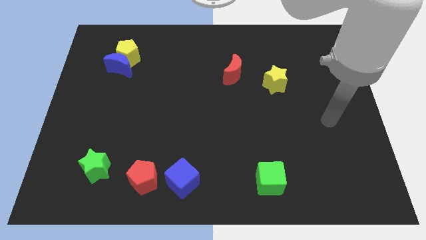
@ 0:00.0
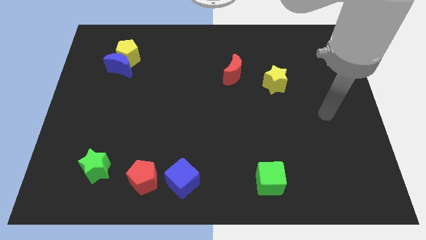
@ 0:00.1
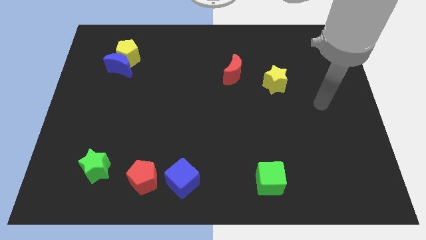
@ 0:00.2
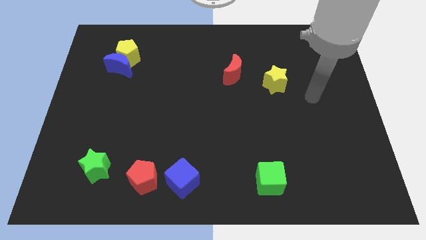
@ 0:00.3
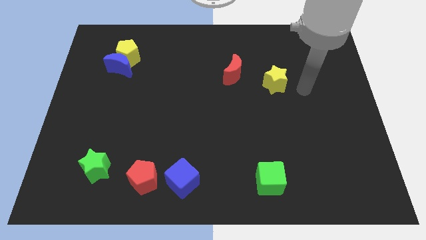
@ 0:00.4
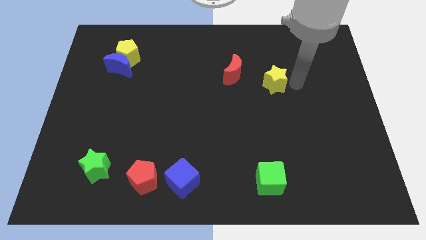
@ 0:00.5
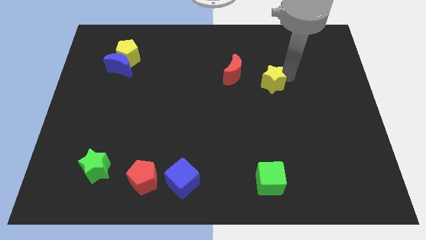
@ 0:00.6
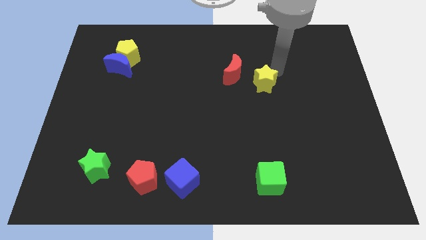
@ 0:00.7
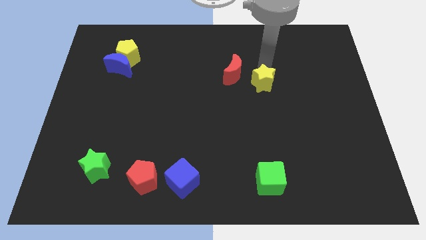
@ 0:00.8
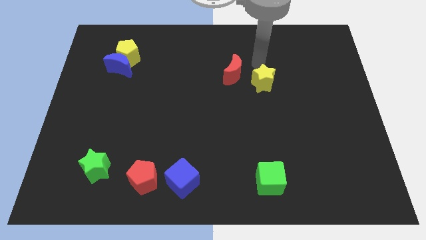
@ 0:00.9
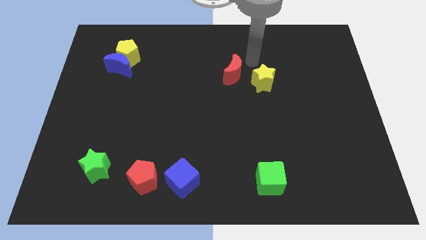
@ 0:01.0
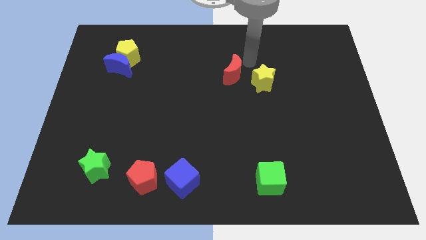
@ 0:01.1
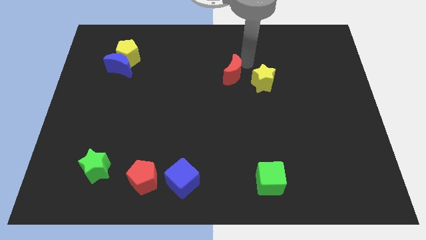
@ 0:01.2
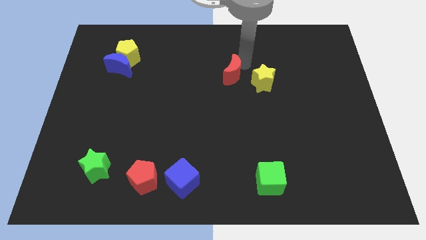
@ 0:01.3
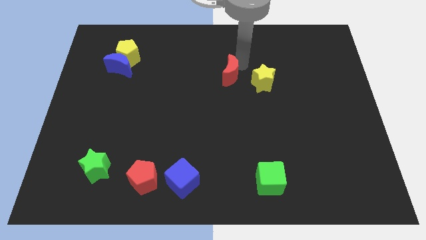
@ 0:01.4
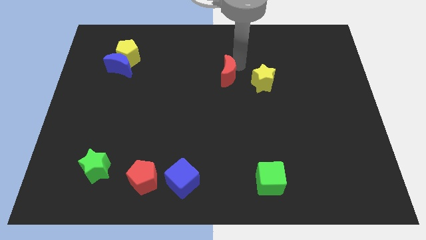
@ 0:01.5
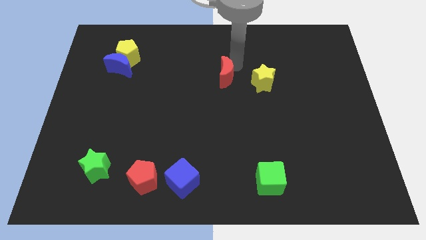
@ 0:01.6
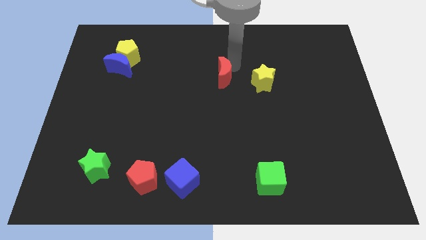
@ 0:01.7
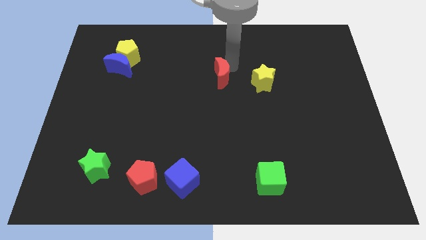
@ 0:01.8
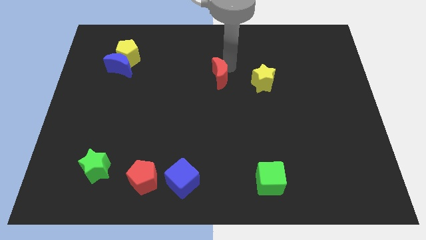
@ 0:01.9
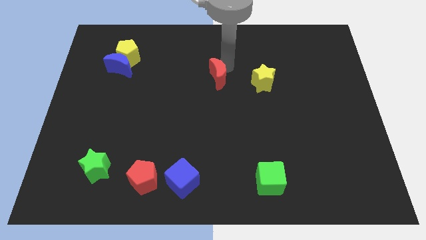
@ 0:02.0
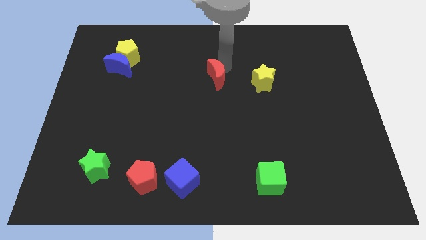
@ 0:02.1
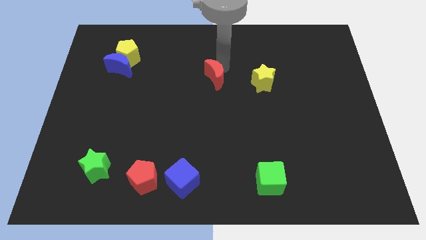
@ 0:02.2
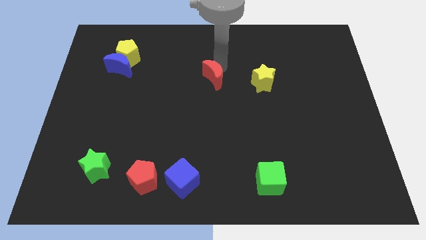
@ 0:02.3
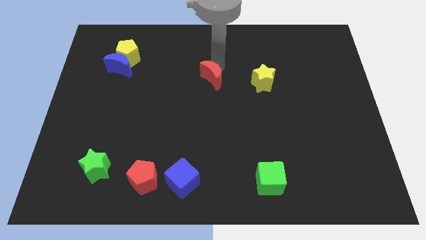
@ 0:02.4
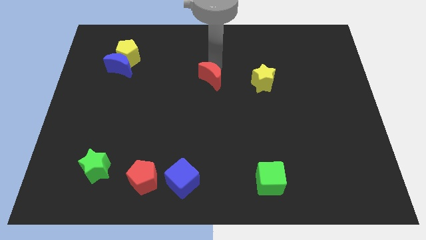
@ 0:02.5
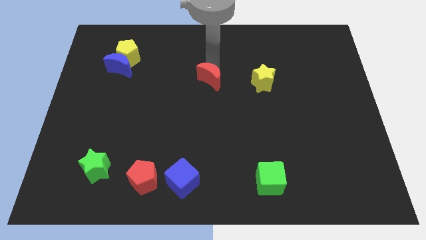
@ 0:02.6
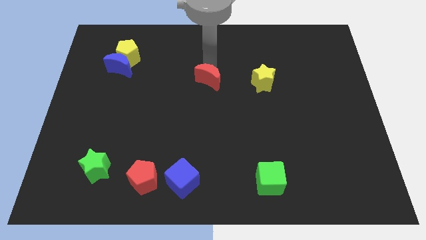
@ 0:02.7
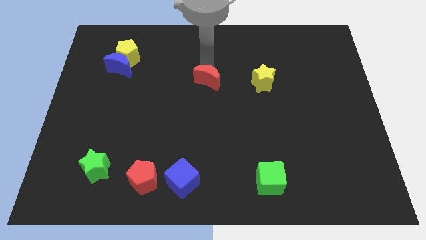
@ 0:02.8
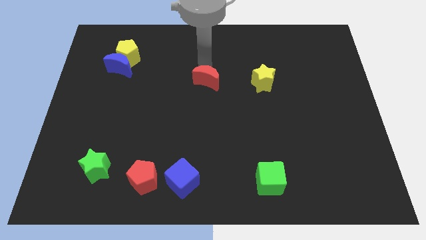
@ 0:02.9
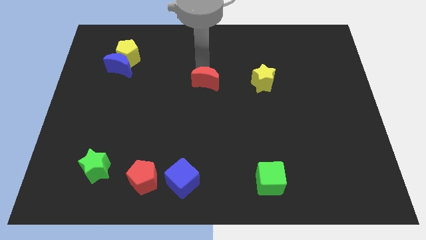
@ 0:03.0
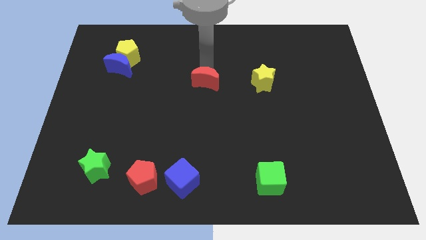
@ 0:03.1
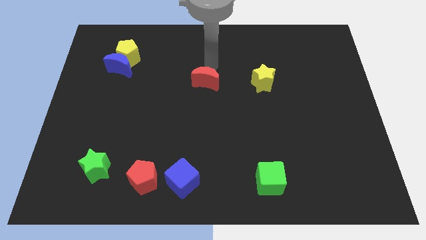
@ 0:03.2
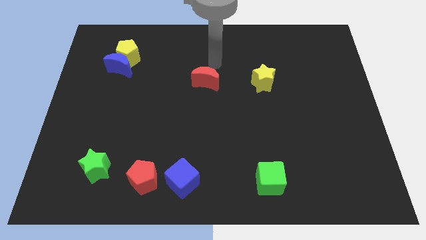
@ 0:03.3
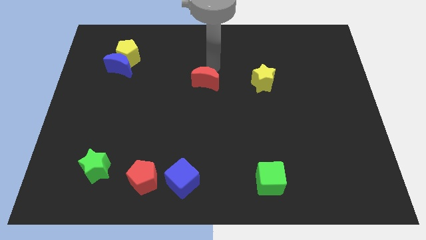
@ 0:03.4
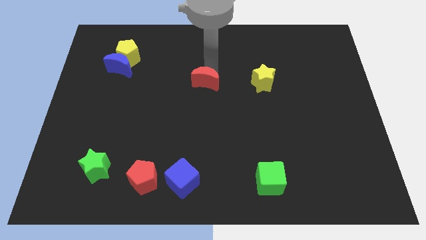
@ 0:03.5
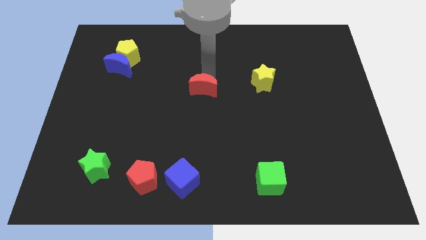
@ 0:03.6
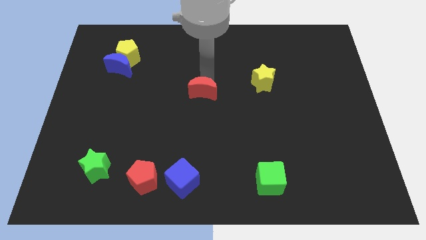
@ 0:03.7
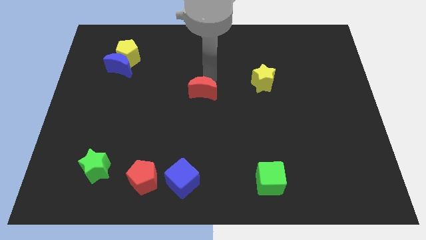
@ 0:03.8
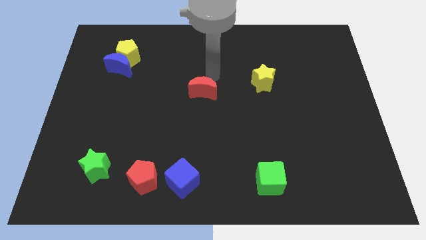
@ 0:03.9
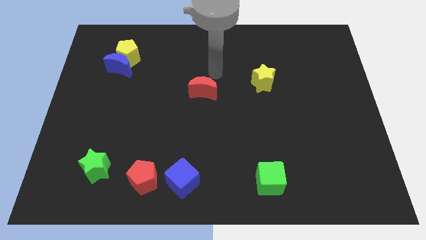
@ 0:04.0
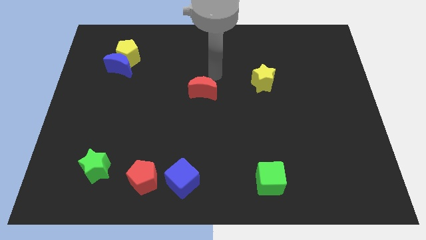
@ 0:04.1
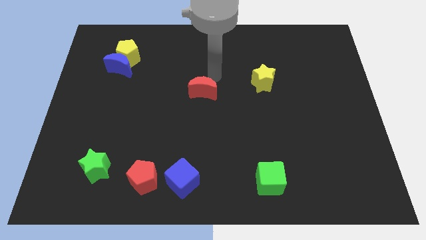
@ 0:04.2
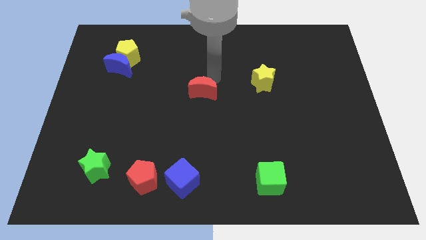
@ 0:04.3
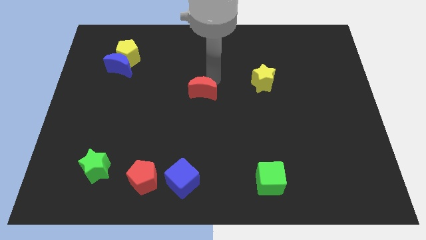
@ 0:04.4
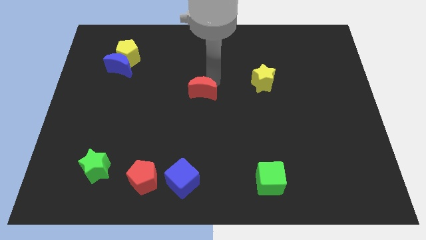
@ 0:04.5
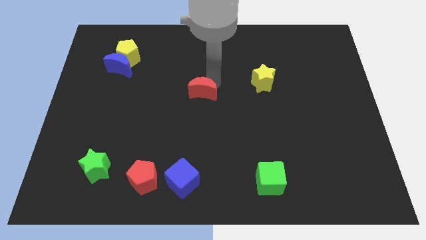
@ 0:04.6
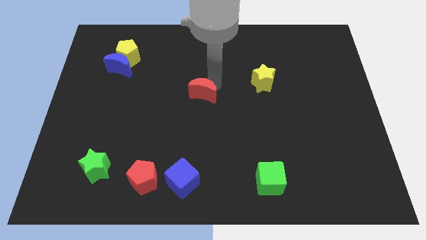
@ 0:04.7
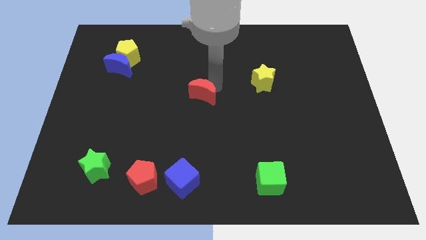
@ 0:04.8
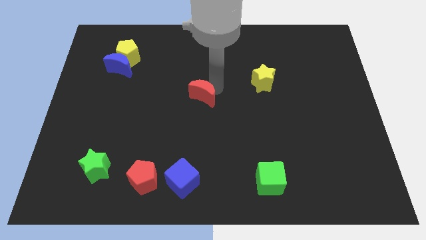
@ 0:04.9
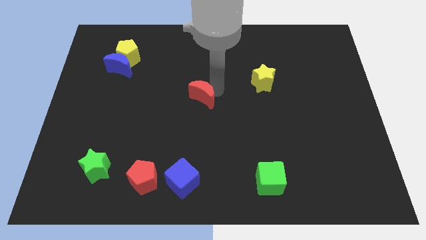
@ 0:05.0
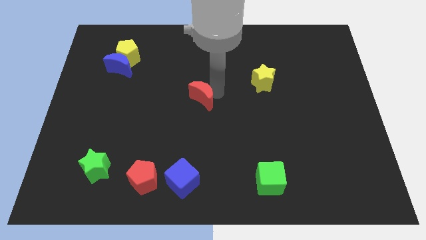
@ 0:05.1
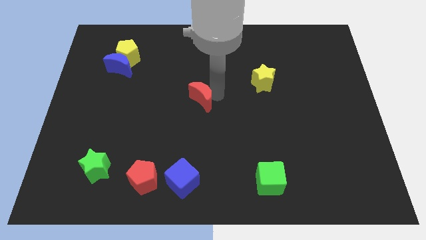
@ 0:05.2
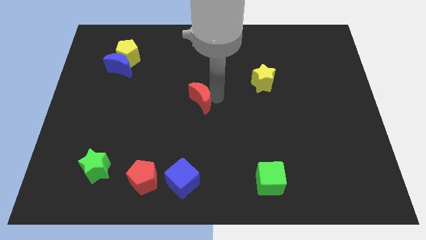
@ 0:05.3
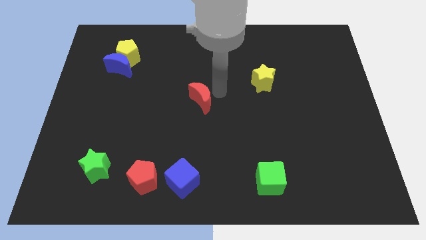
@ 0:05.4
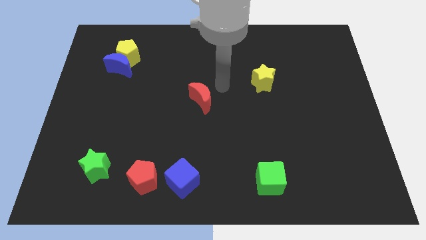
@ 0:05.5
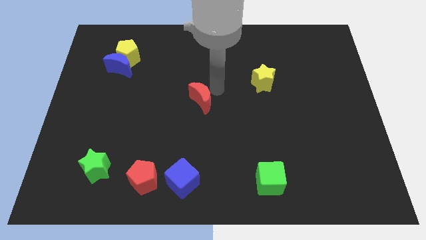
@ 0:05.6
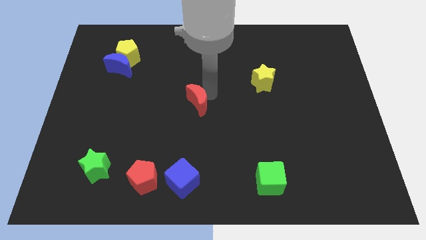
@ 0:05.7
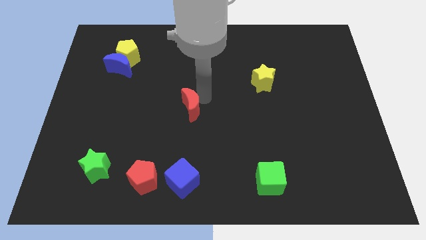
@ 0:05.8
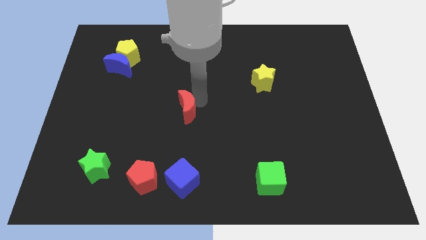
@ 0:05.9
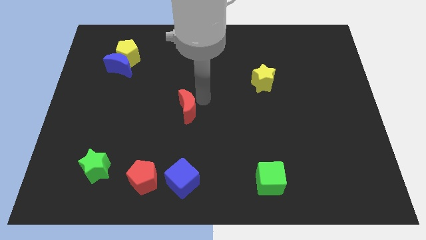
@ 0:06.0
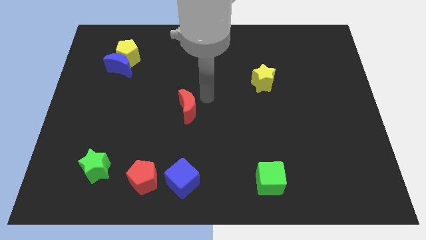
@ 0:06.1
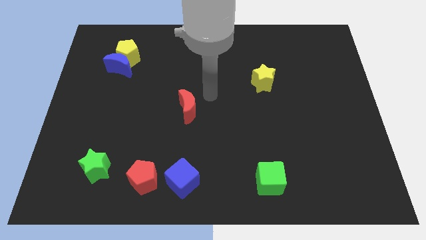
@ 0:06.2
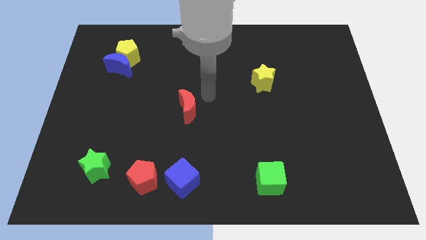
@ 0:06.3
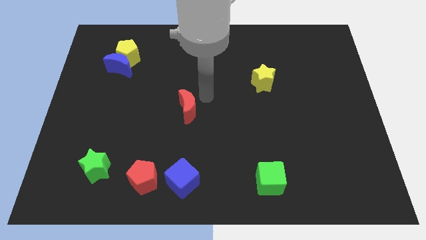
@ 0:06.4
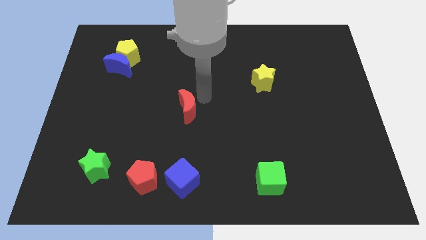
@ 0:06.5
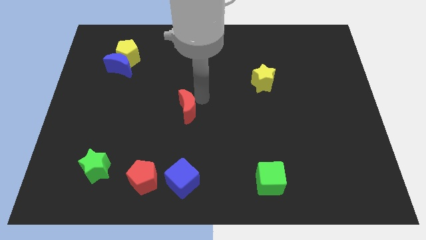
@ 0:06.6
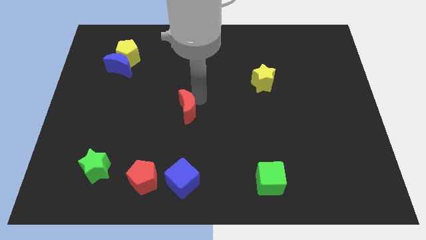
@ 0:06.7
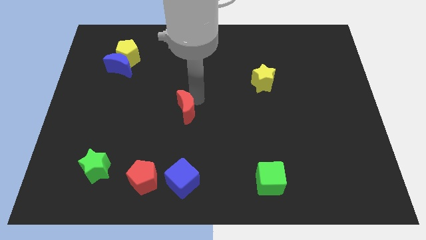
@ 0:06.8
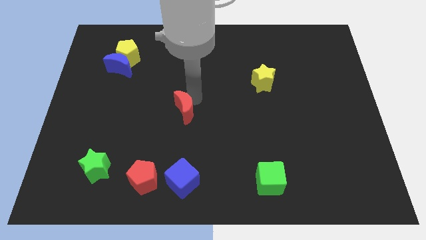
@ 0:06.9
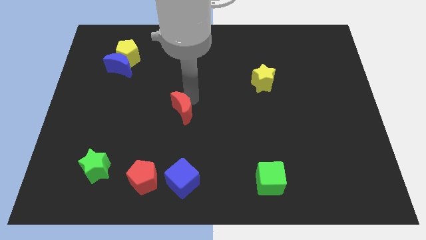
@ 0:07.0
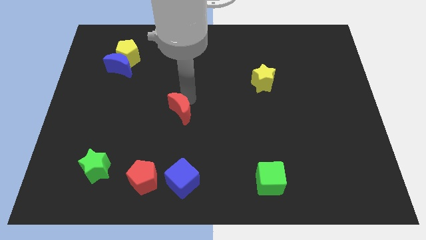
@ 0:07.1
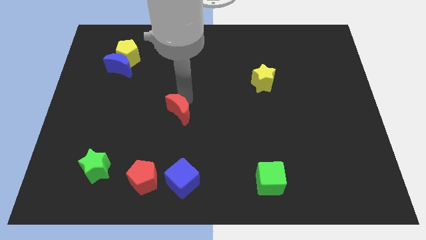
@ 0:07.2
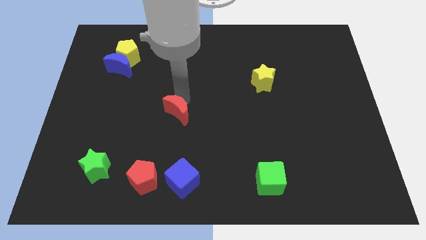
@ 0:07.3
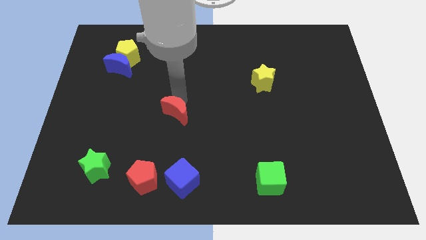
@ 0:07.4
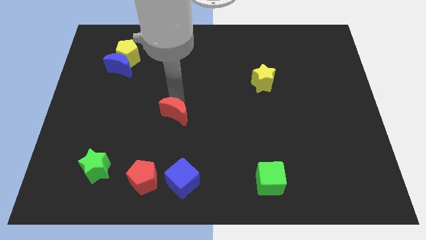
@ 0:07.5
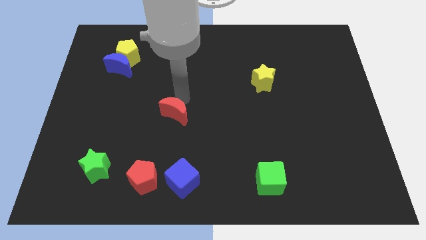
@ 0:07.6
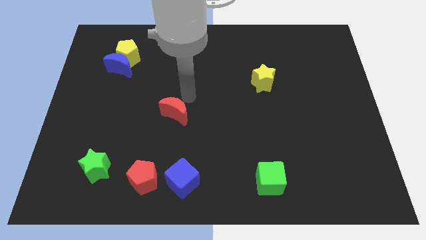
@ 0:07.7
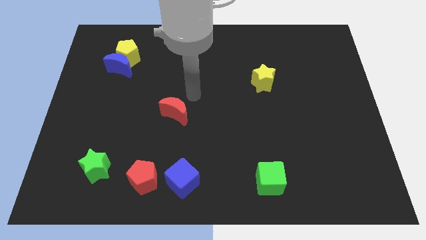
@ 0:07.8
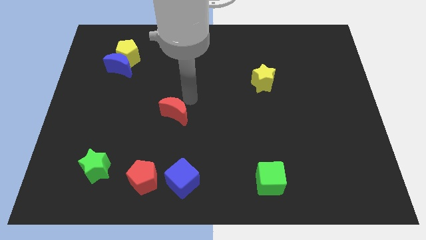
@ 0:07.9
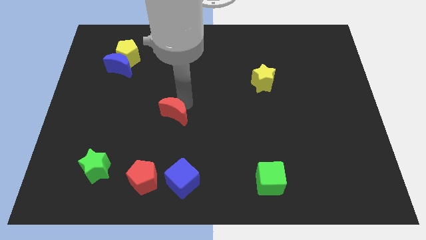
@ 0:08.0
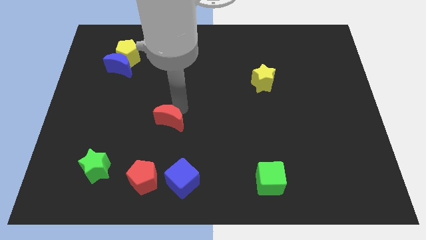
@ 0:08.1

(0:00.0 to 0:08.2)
push the red moon down and then left
